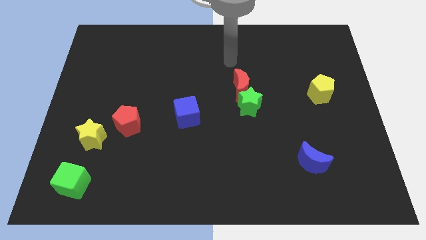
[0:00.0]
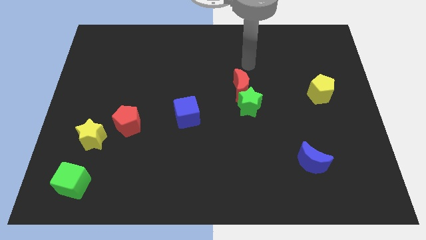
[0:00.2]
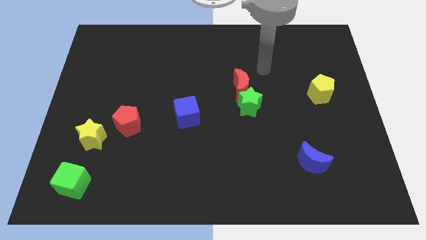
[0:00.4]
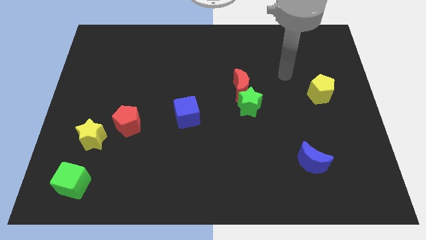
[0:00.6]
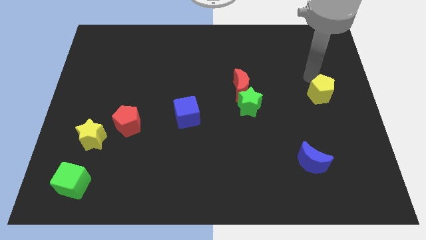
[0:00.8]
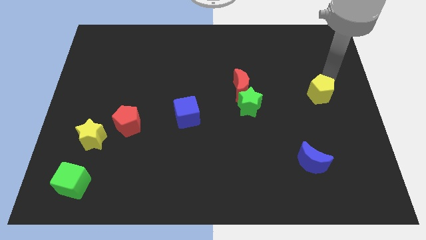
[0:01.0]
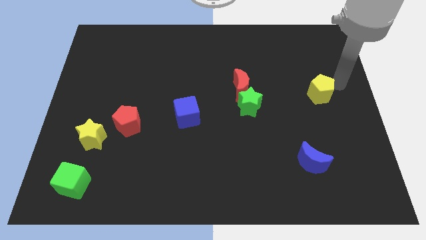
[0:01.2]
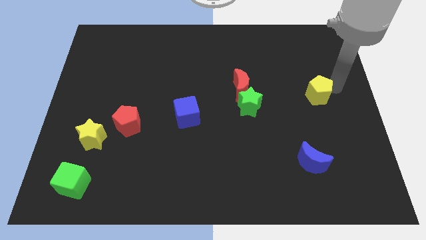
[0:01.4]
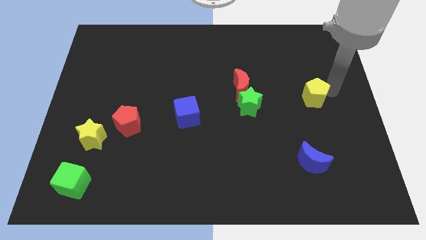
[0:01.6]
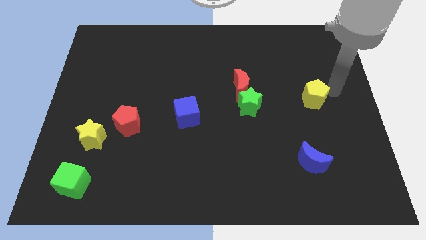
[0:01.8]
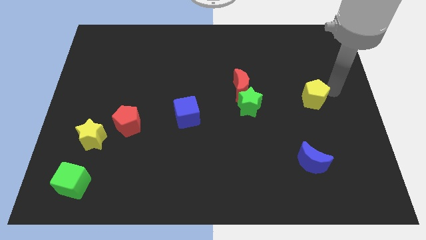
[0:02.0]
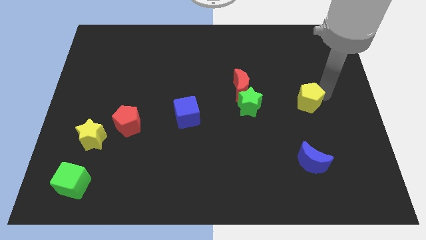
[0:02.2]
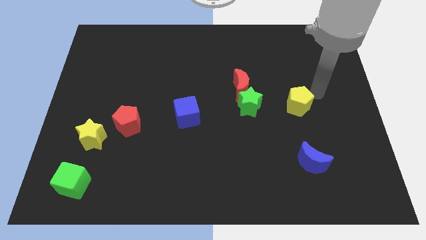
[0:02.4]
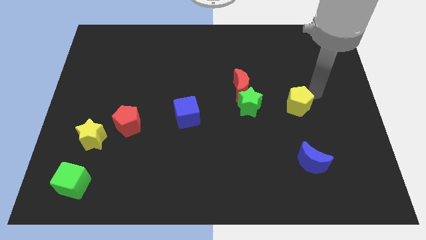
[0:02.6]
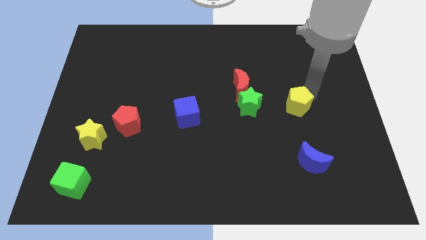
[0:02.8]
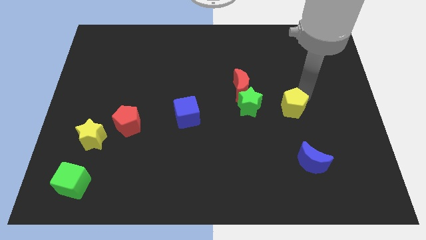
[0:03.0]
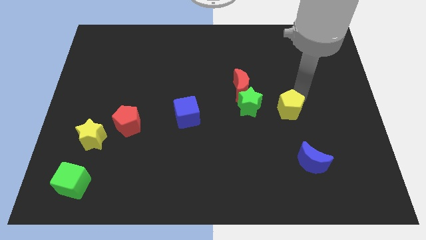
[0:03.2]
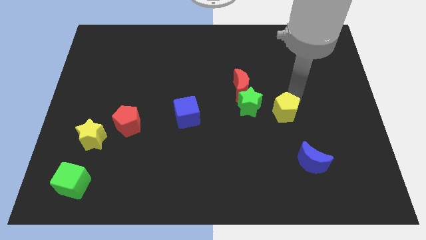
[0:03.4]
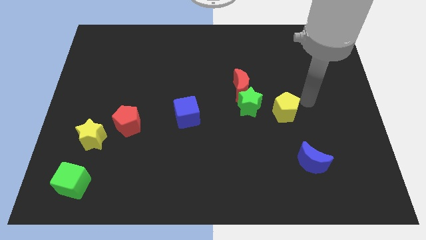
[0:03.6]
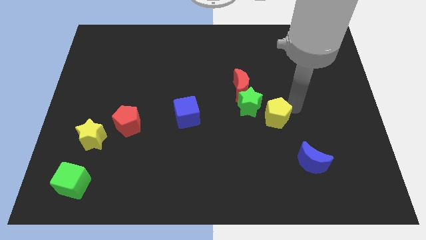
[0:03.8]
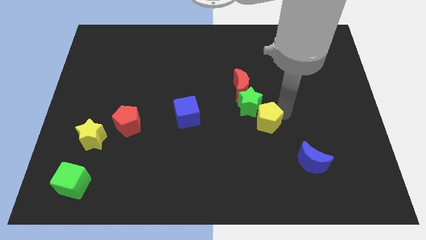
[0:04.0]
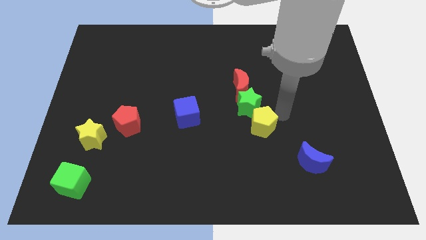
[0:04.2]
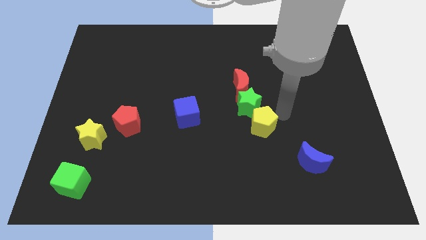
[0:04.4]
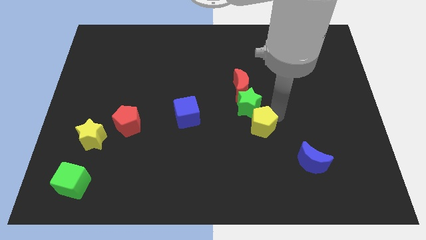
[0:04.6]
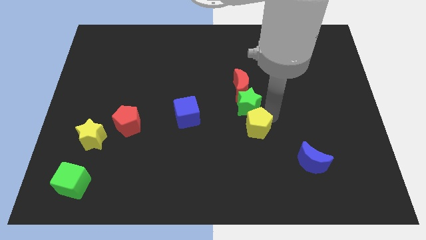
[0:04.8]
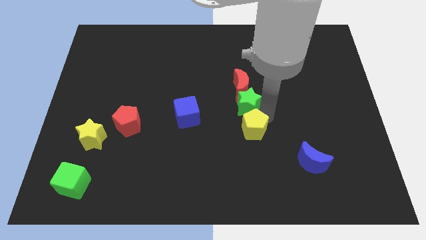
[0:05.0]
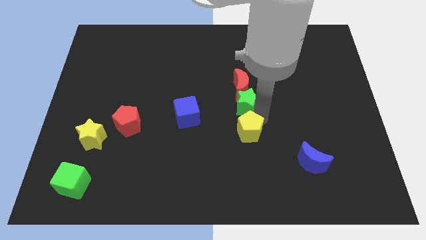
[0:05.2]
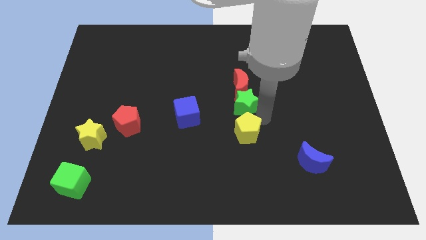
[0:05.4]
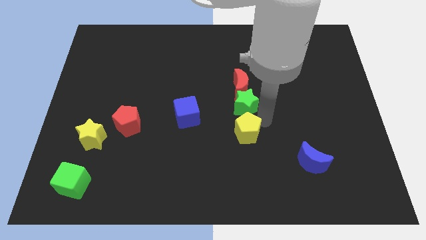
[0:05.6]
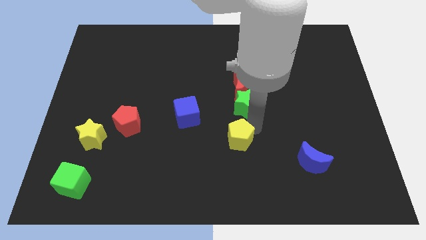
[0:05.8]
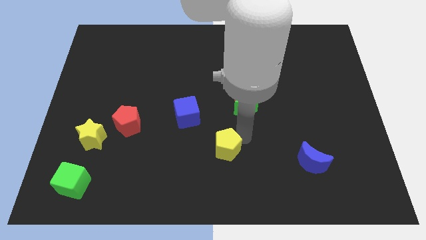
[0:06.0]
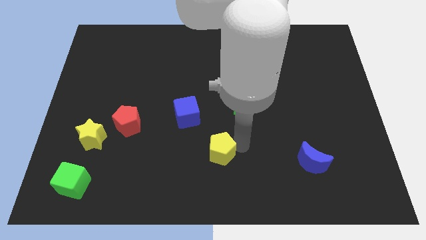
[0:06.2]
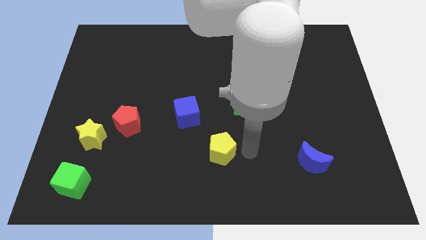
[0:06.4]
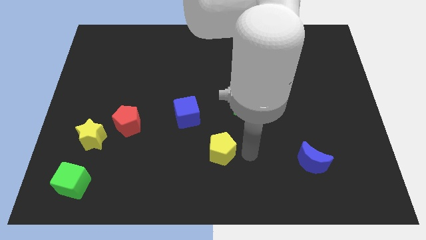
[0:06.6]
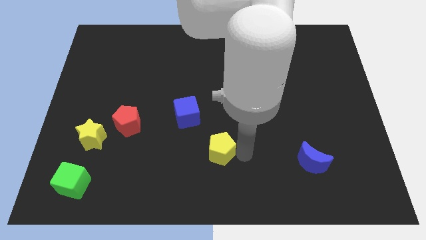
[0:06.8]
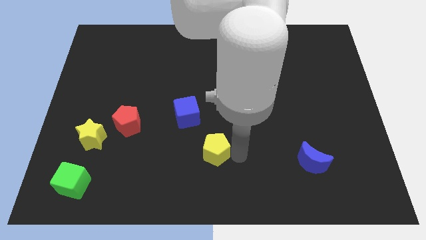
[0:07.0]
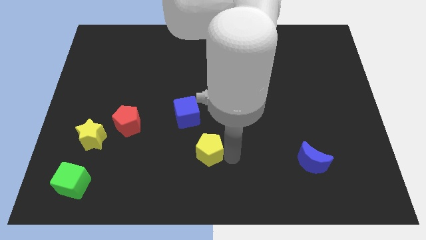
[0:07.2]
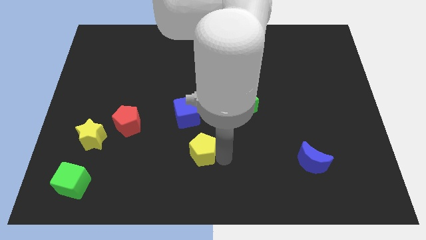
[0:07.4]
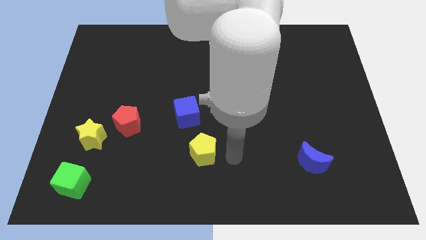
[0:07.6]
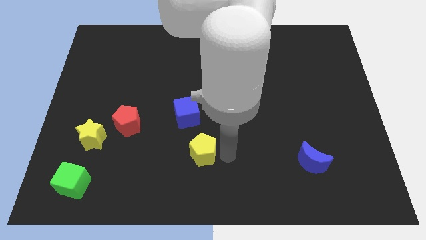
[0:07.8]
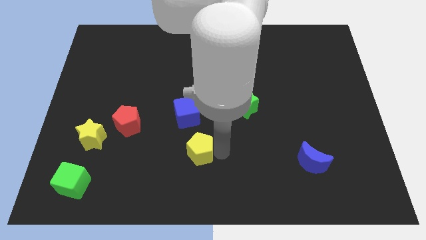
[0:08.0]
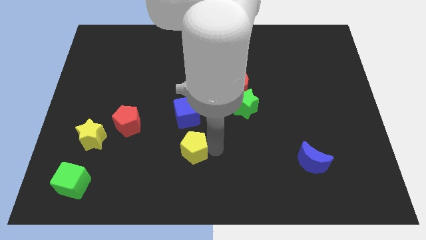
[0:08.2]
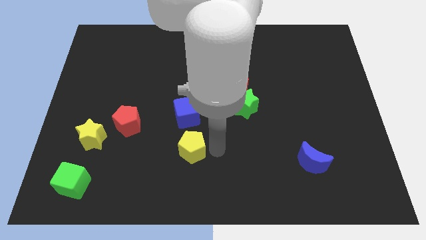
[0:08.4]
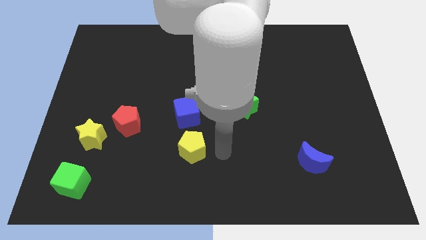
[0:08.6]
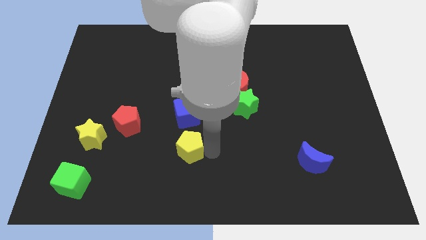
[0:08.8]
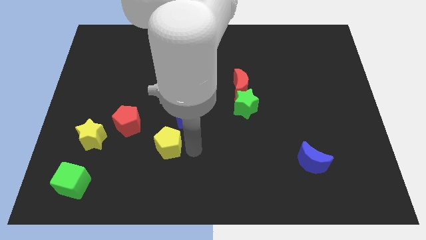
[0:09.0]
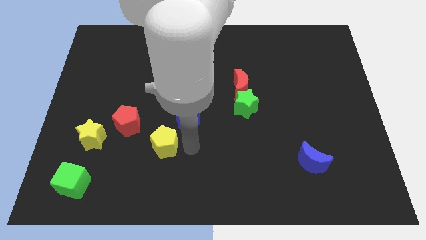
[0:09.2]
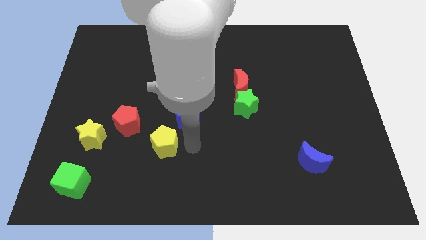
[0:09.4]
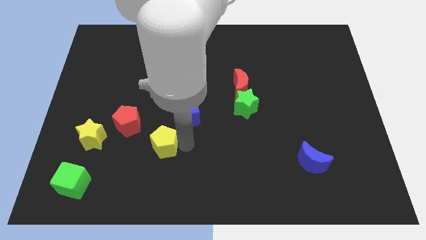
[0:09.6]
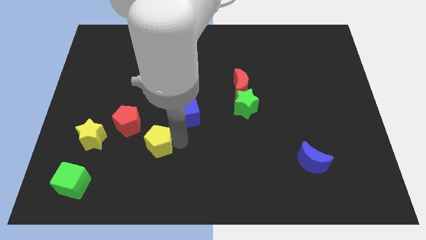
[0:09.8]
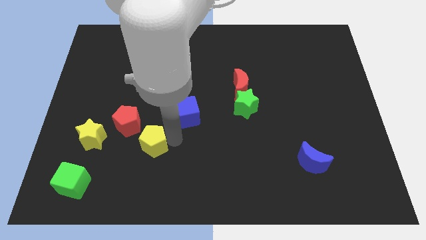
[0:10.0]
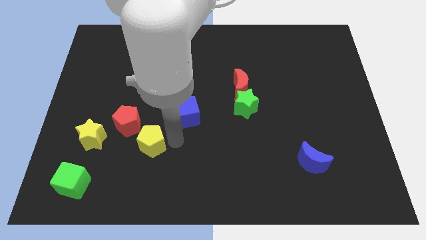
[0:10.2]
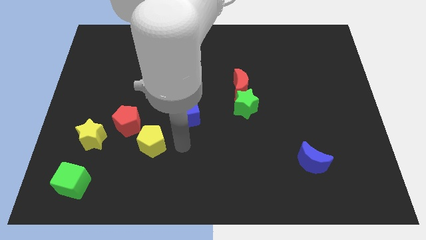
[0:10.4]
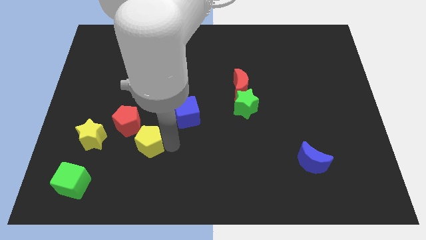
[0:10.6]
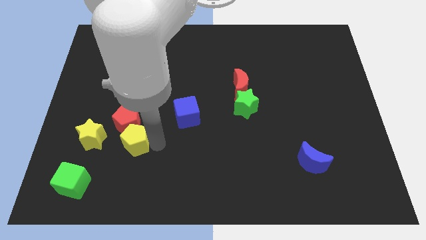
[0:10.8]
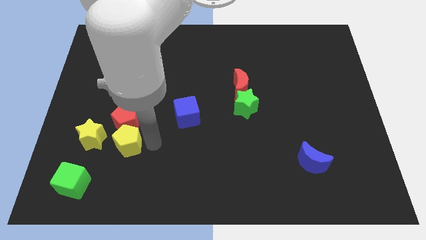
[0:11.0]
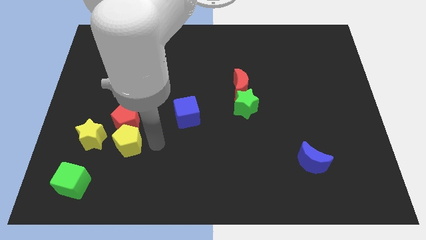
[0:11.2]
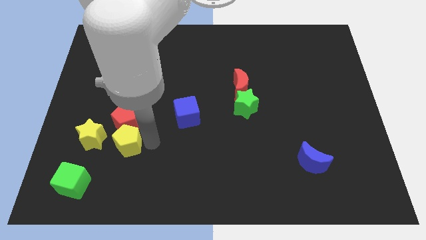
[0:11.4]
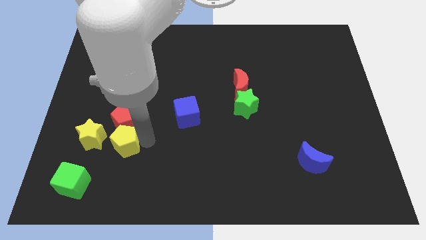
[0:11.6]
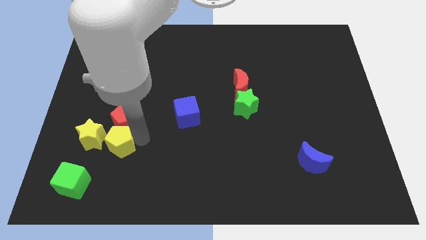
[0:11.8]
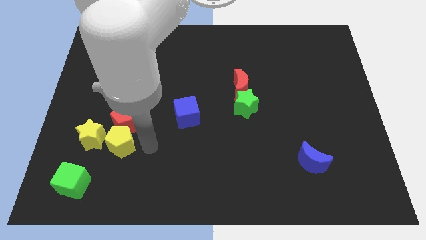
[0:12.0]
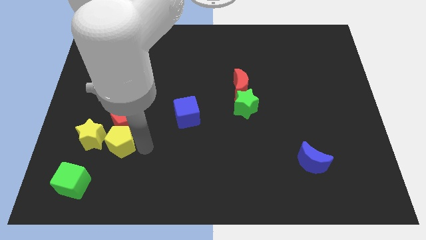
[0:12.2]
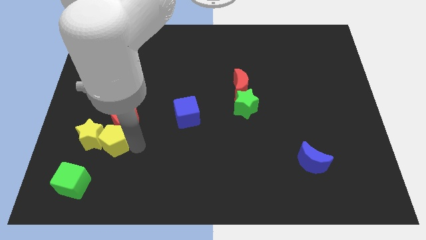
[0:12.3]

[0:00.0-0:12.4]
push the yellow pentagon close to the yellow star
